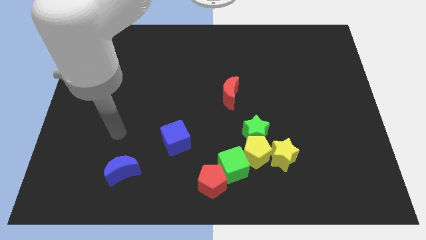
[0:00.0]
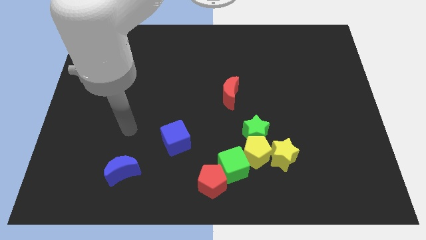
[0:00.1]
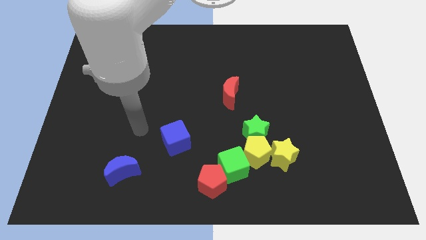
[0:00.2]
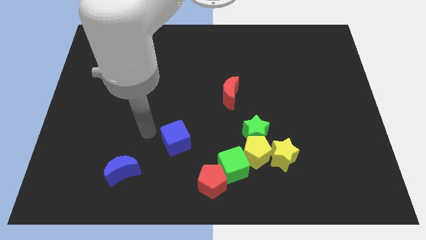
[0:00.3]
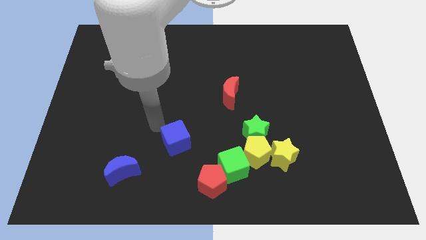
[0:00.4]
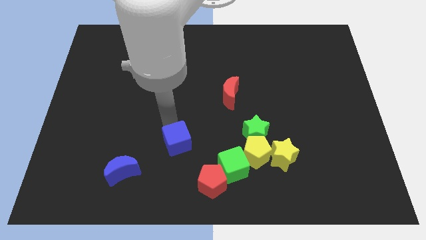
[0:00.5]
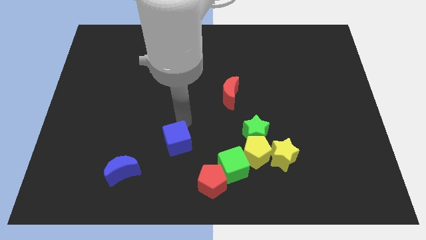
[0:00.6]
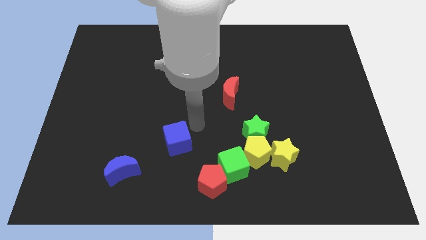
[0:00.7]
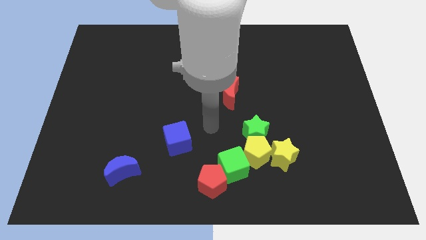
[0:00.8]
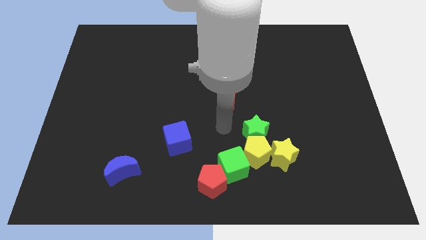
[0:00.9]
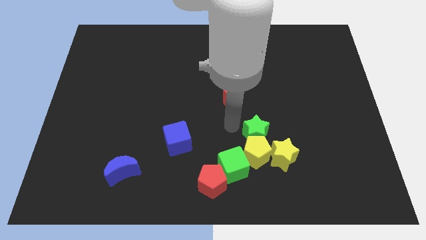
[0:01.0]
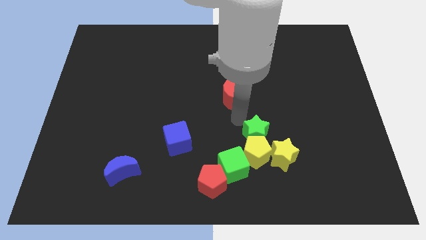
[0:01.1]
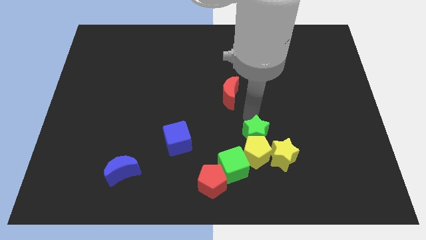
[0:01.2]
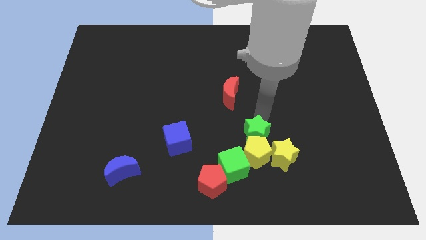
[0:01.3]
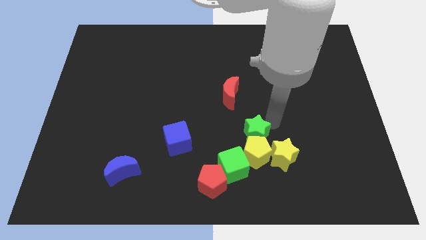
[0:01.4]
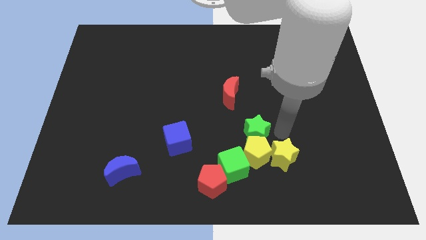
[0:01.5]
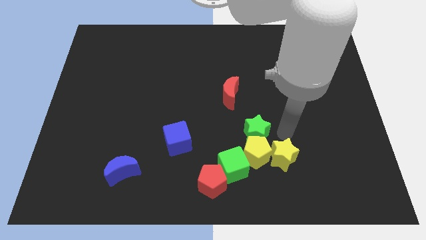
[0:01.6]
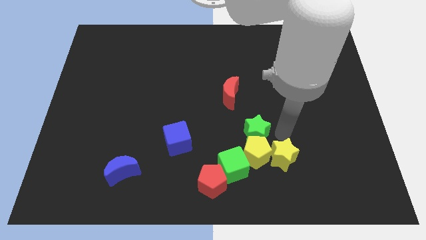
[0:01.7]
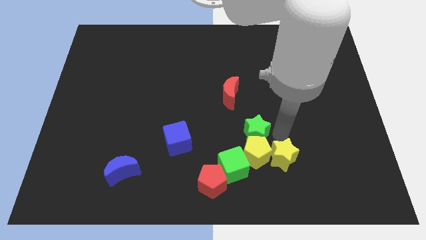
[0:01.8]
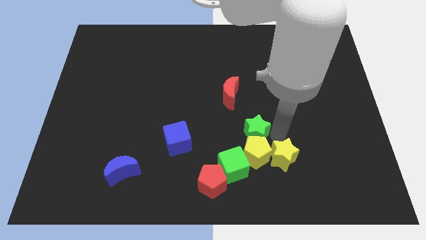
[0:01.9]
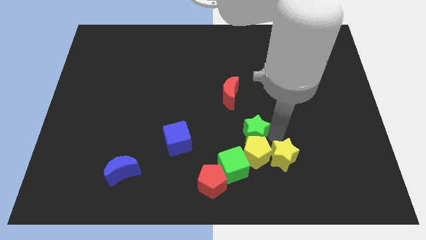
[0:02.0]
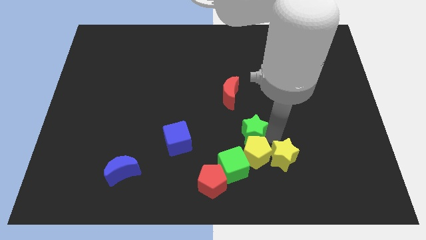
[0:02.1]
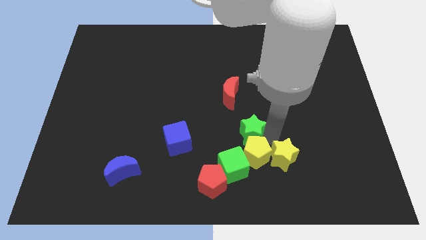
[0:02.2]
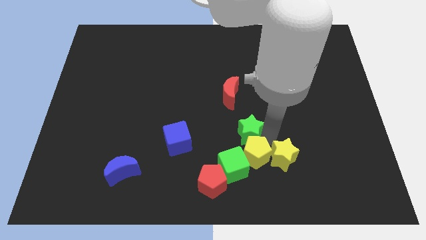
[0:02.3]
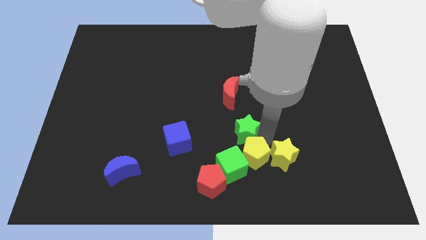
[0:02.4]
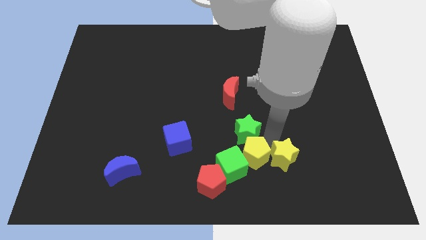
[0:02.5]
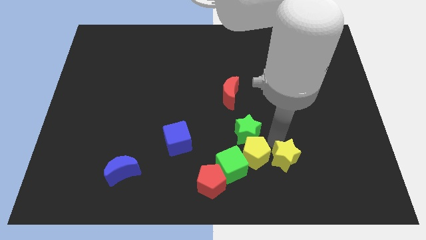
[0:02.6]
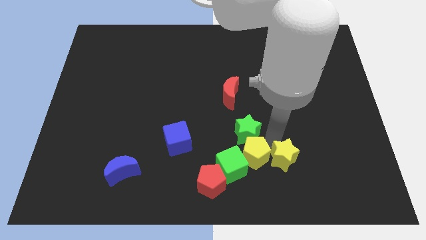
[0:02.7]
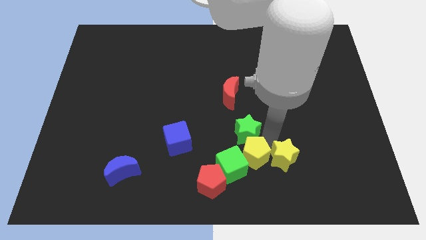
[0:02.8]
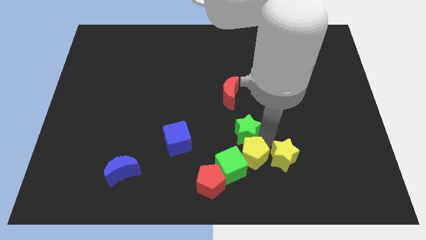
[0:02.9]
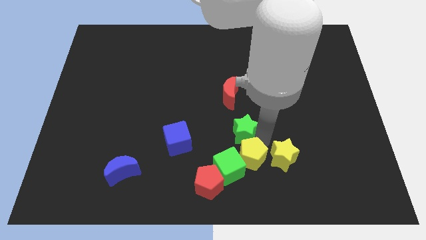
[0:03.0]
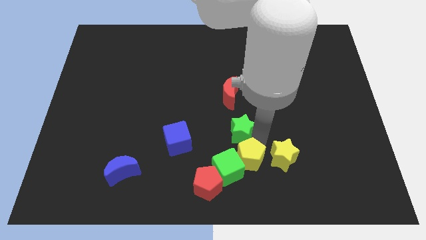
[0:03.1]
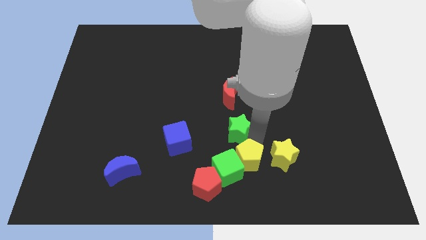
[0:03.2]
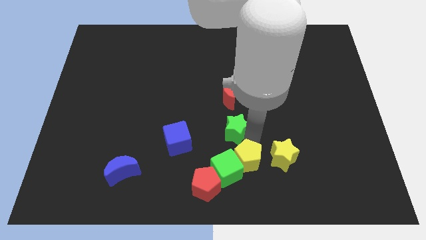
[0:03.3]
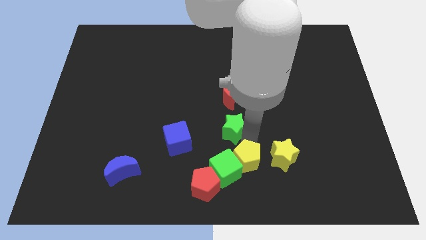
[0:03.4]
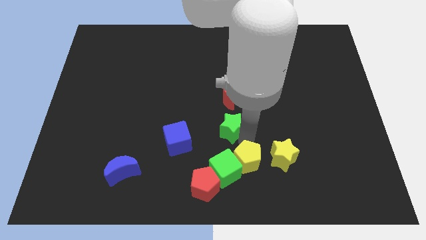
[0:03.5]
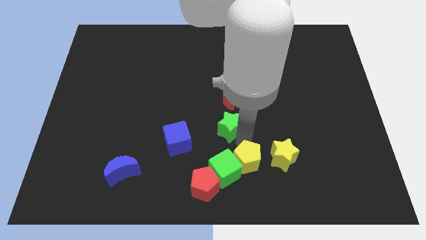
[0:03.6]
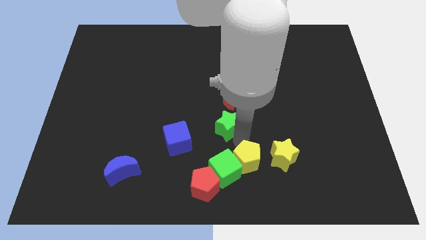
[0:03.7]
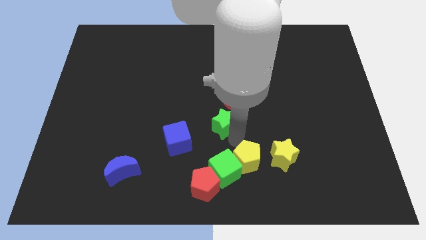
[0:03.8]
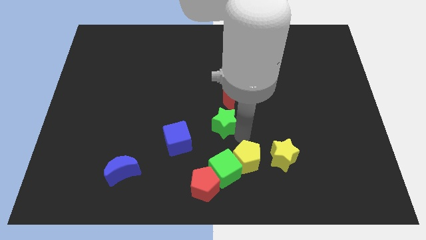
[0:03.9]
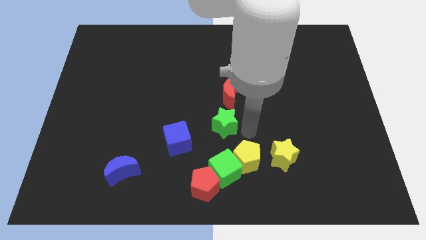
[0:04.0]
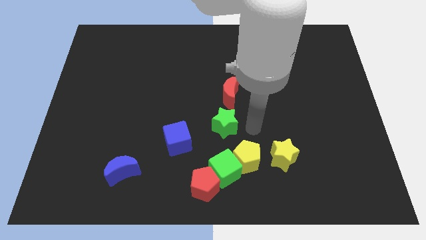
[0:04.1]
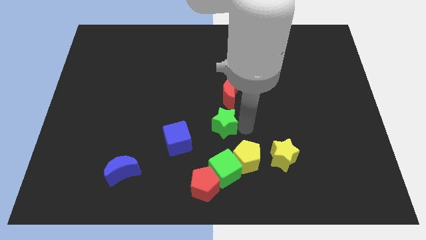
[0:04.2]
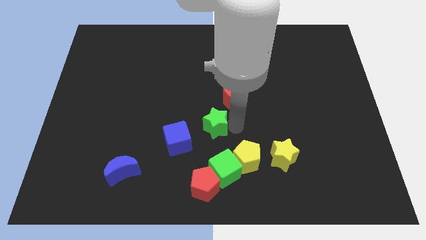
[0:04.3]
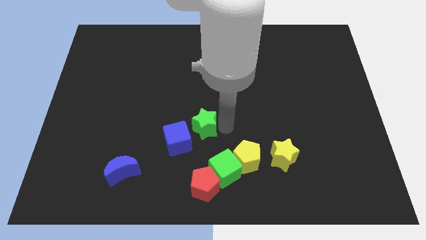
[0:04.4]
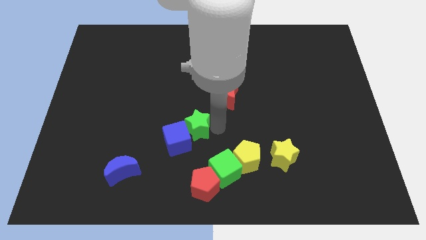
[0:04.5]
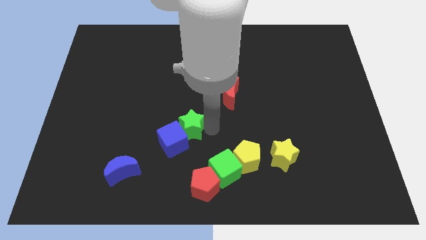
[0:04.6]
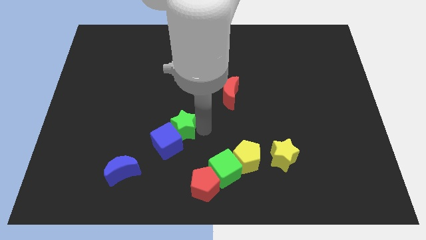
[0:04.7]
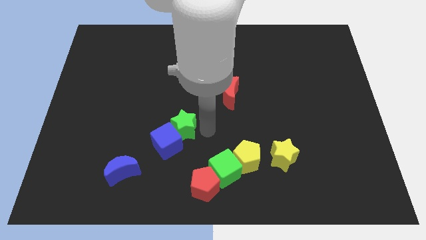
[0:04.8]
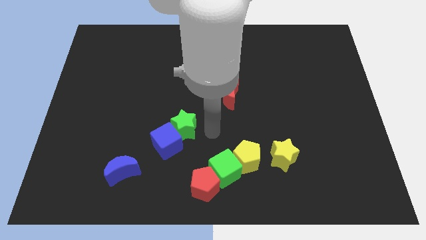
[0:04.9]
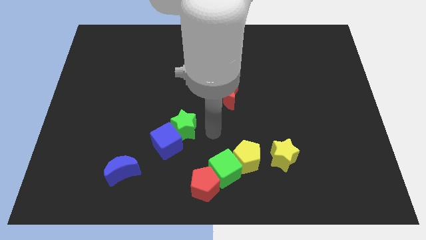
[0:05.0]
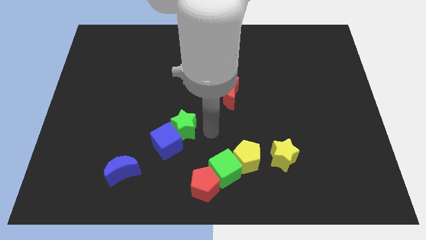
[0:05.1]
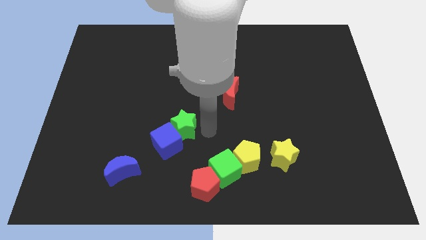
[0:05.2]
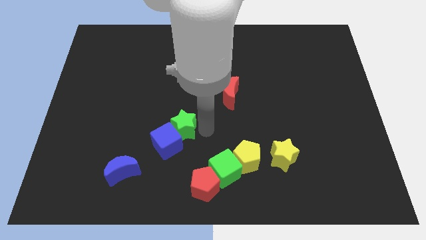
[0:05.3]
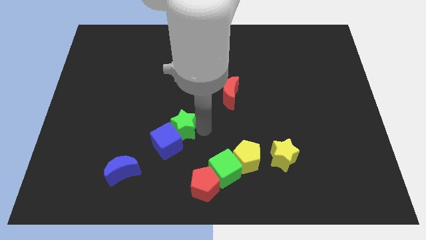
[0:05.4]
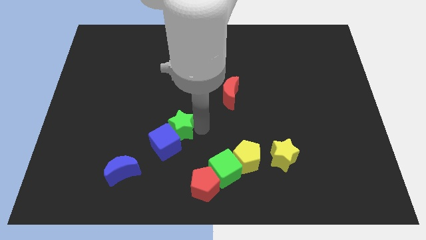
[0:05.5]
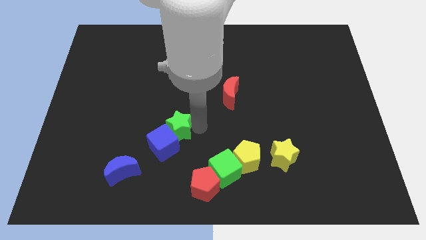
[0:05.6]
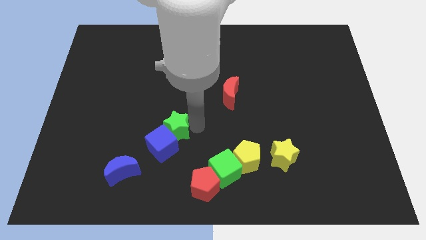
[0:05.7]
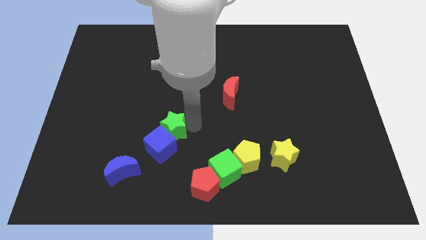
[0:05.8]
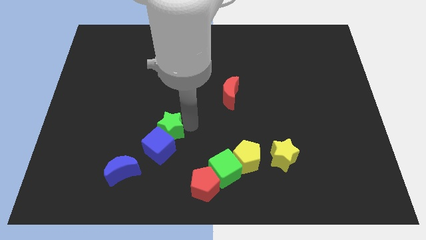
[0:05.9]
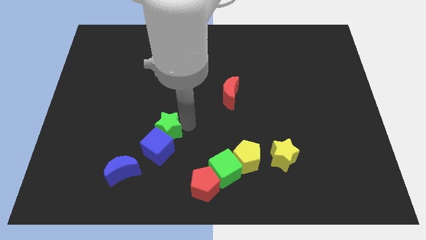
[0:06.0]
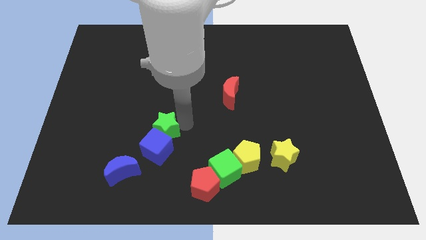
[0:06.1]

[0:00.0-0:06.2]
move the green star to the left

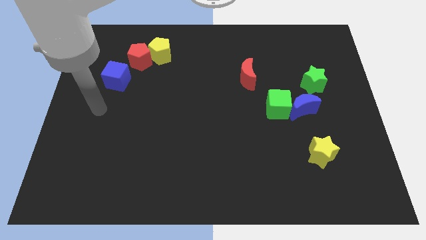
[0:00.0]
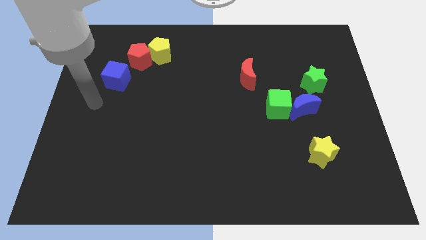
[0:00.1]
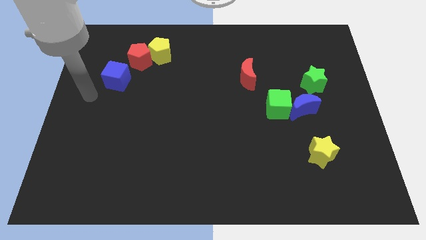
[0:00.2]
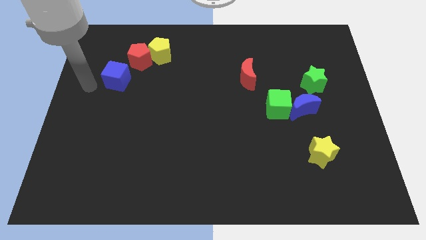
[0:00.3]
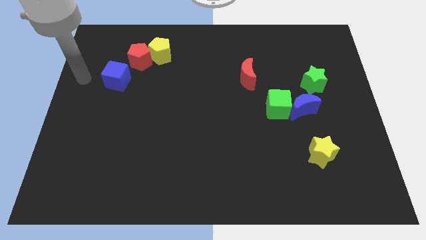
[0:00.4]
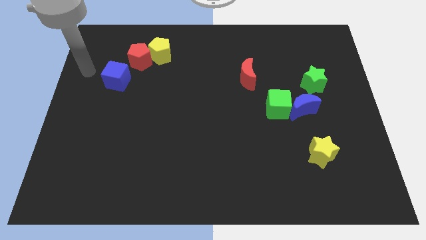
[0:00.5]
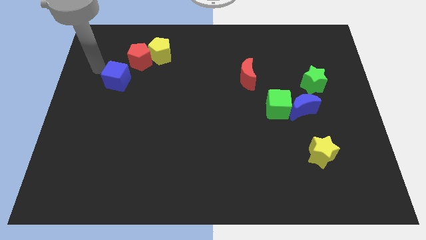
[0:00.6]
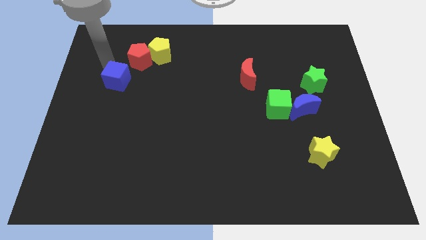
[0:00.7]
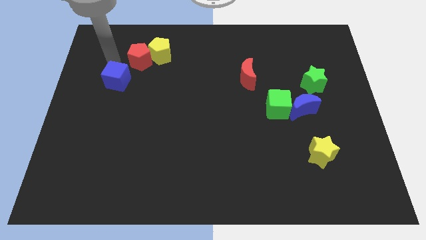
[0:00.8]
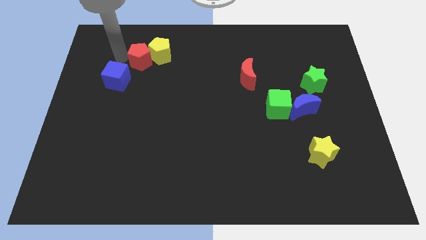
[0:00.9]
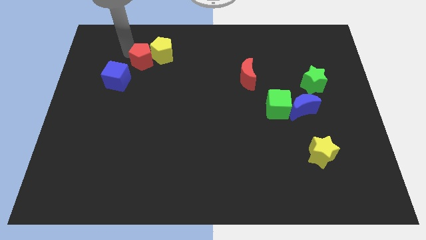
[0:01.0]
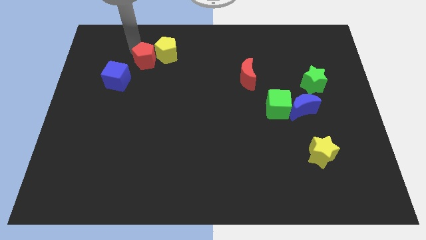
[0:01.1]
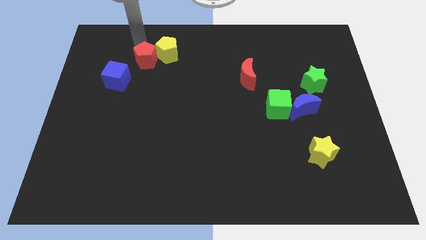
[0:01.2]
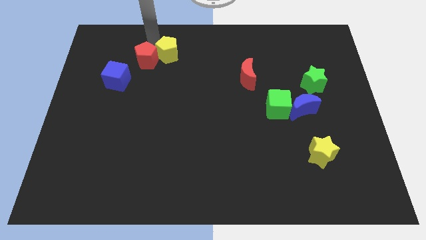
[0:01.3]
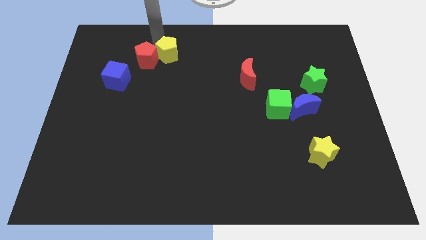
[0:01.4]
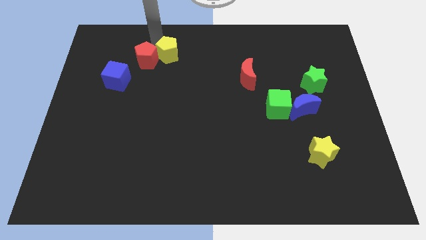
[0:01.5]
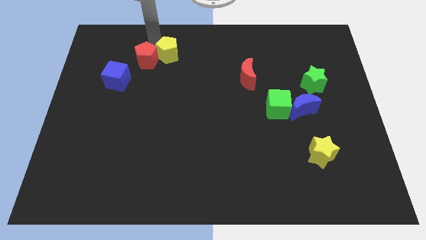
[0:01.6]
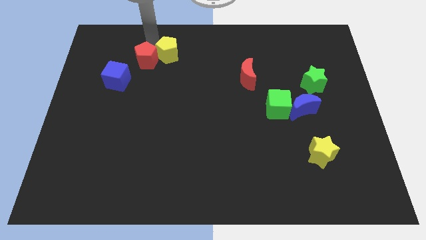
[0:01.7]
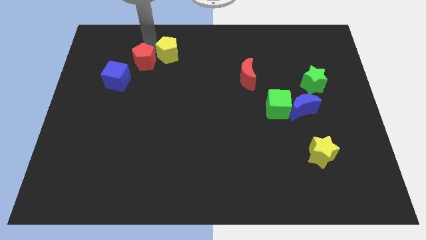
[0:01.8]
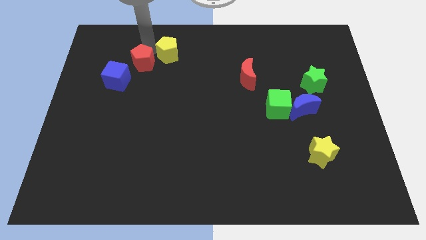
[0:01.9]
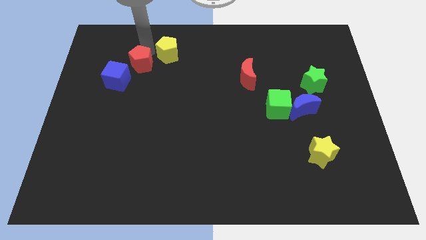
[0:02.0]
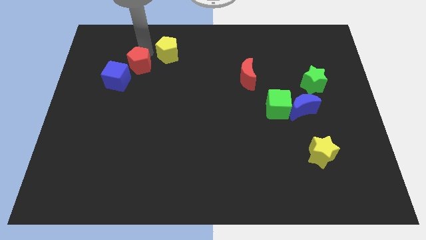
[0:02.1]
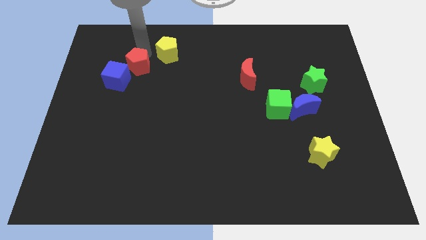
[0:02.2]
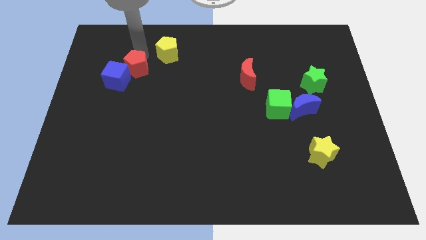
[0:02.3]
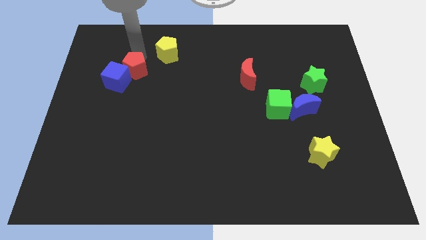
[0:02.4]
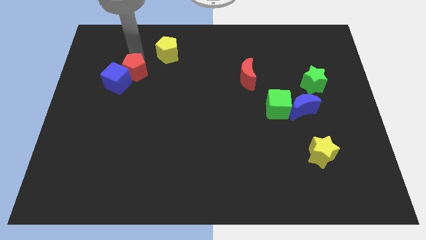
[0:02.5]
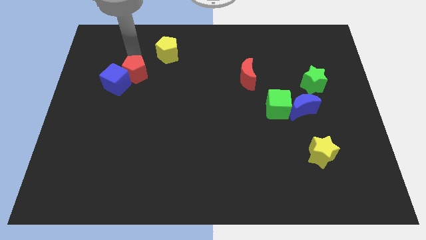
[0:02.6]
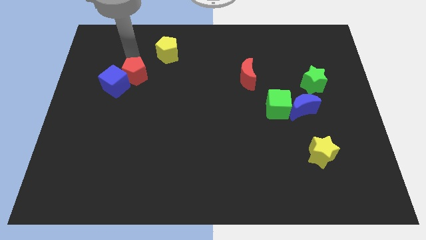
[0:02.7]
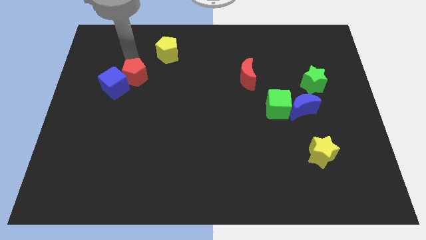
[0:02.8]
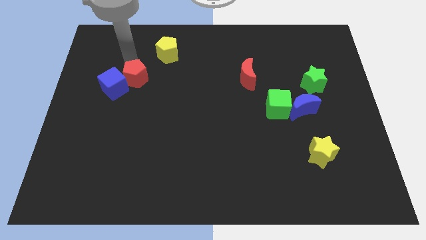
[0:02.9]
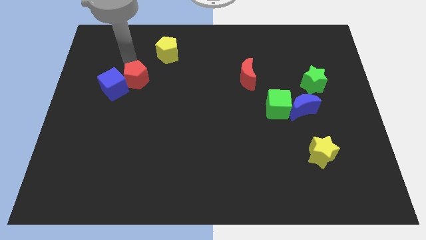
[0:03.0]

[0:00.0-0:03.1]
slightly move the red pentagon down
